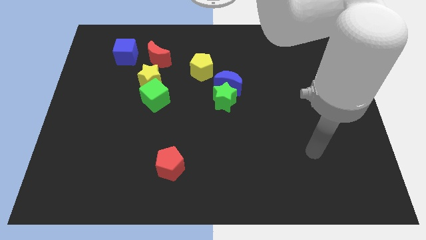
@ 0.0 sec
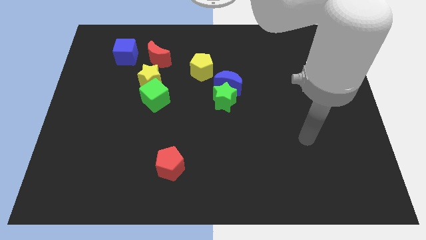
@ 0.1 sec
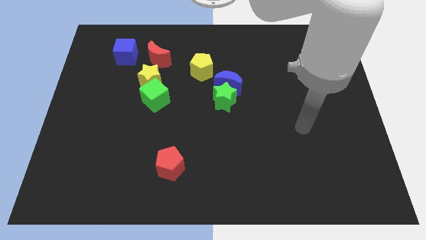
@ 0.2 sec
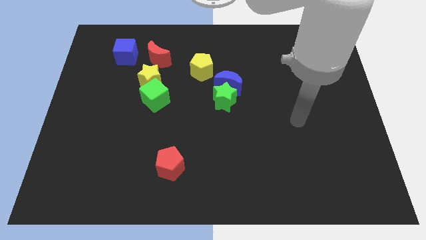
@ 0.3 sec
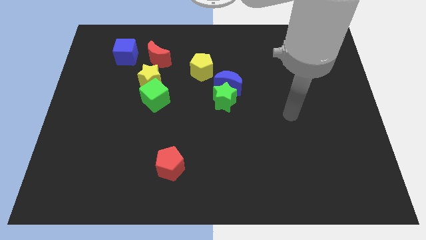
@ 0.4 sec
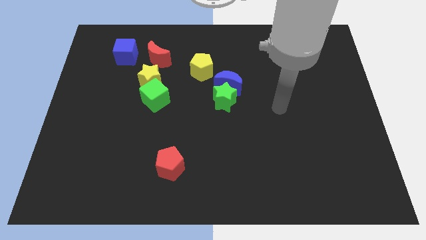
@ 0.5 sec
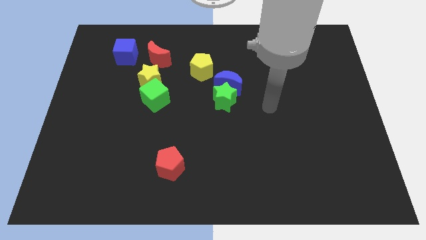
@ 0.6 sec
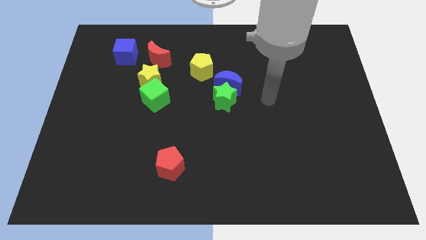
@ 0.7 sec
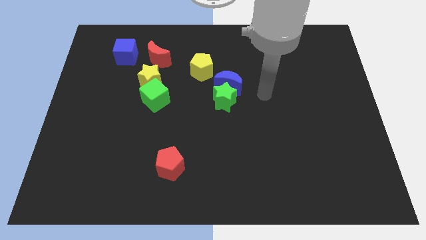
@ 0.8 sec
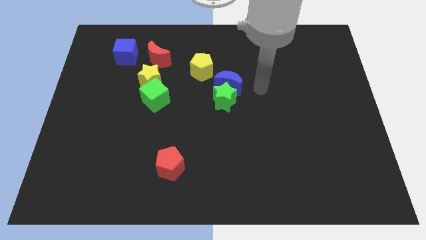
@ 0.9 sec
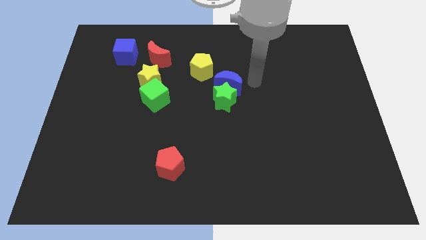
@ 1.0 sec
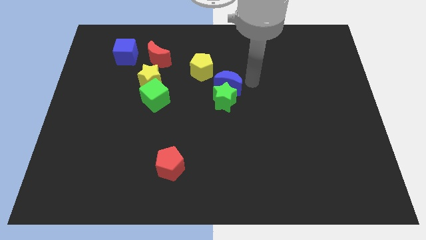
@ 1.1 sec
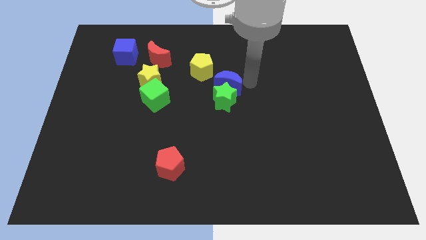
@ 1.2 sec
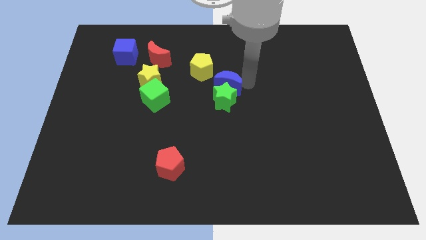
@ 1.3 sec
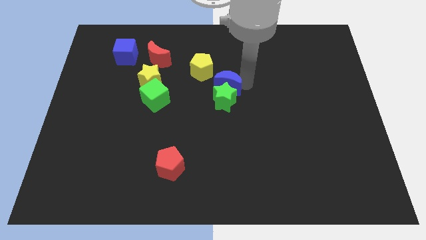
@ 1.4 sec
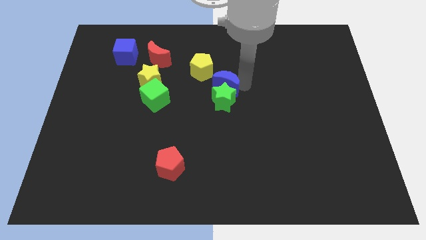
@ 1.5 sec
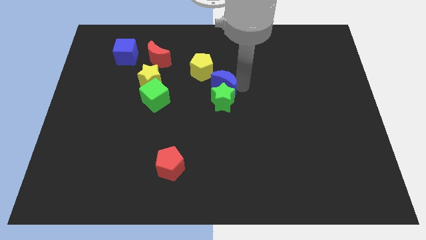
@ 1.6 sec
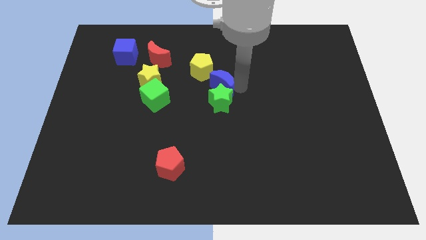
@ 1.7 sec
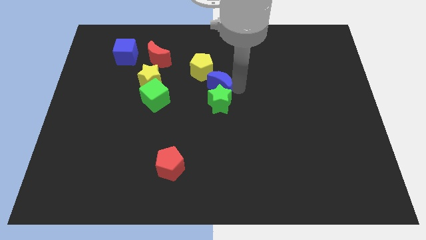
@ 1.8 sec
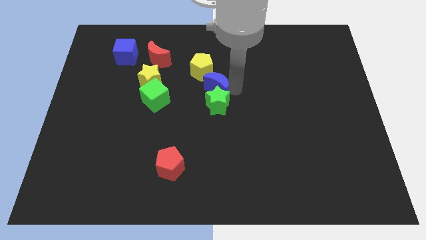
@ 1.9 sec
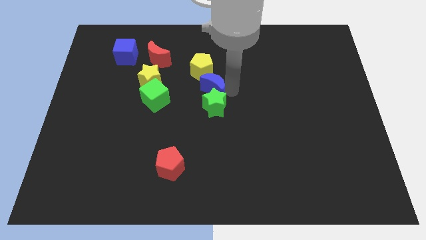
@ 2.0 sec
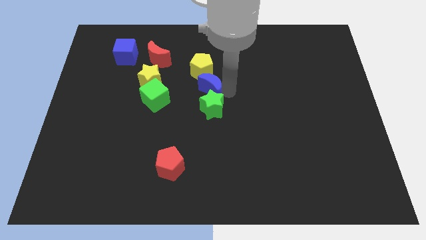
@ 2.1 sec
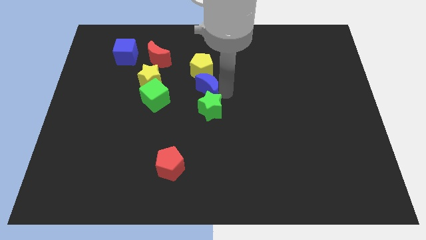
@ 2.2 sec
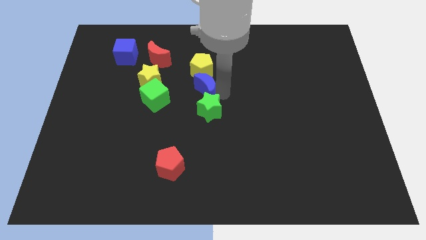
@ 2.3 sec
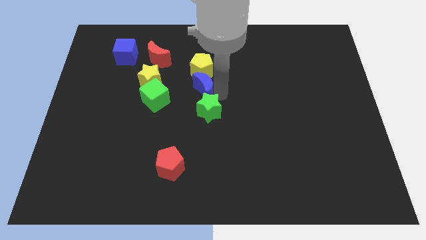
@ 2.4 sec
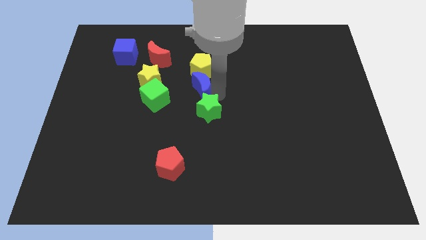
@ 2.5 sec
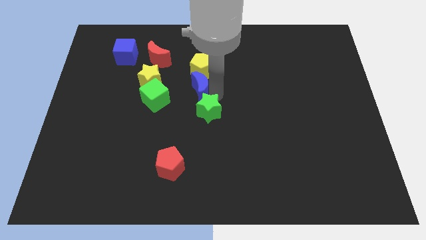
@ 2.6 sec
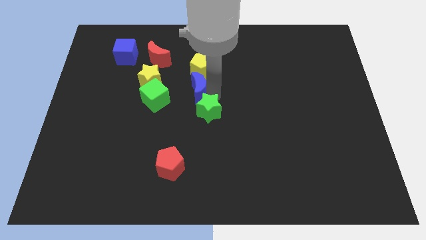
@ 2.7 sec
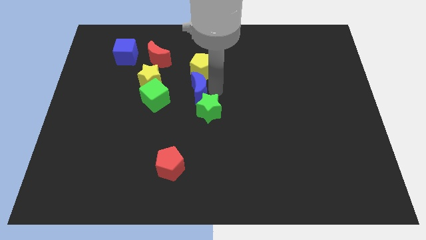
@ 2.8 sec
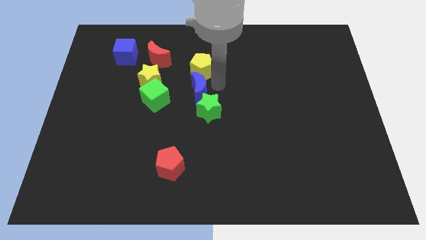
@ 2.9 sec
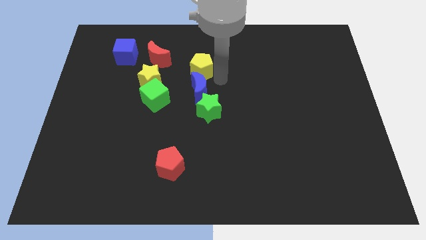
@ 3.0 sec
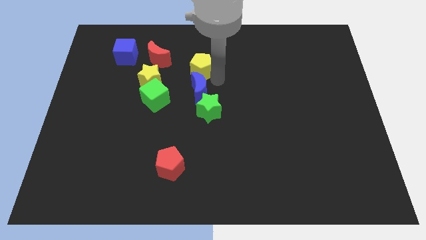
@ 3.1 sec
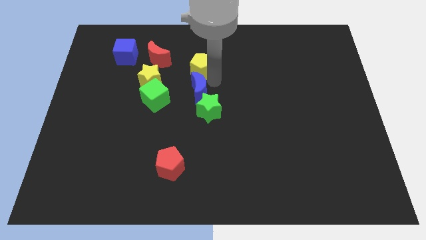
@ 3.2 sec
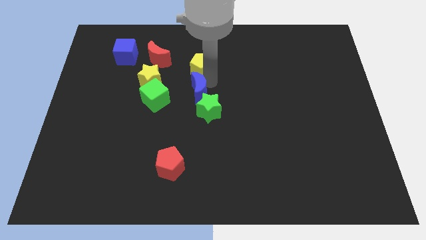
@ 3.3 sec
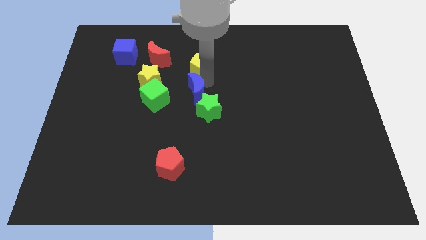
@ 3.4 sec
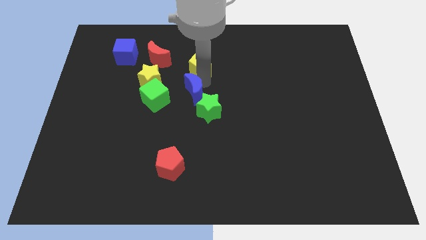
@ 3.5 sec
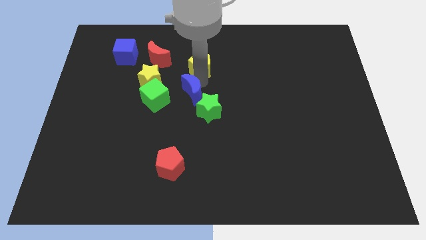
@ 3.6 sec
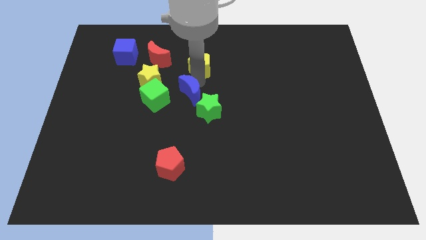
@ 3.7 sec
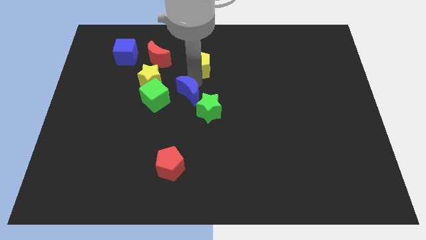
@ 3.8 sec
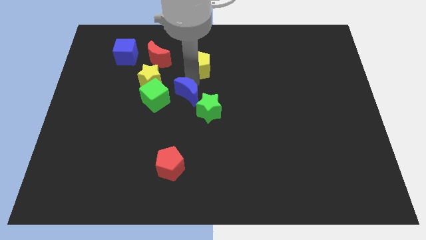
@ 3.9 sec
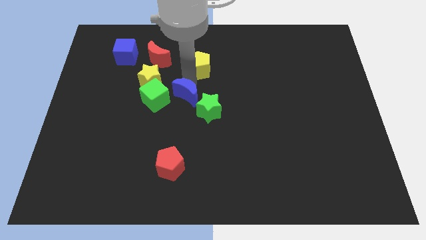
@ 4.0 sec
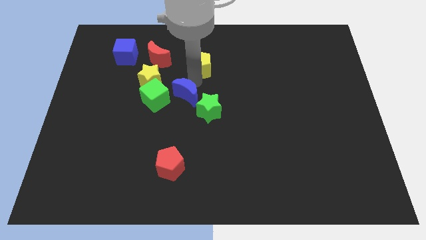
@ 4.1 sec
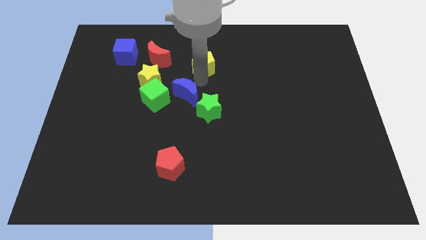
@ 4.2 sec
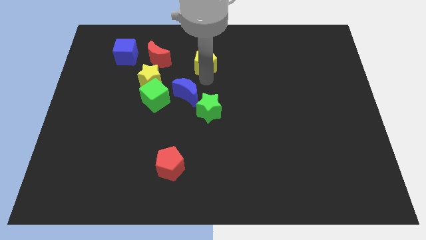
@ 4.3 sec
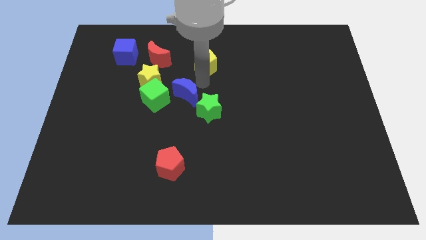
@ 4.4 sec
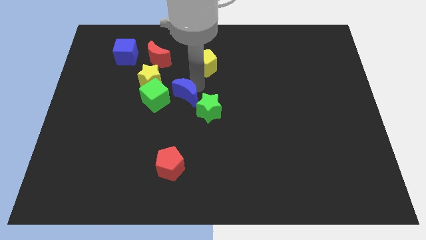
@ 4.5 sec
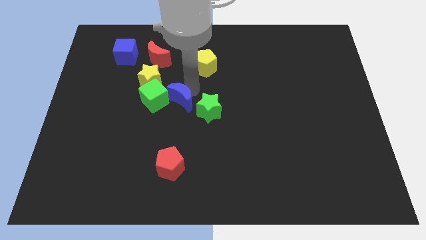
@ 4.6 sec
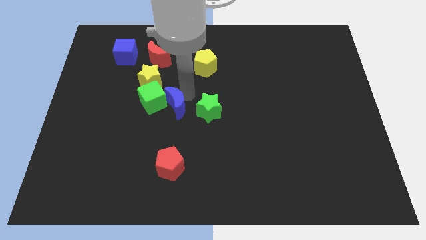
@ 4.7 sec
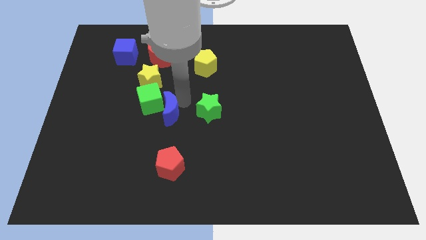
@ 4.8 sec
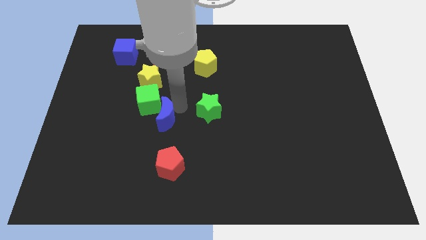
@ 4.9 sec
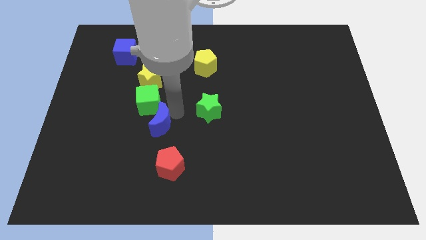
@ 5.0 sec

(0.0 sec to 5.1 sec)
push the blue moon to the bottom of the yellow star

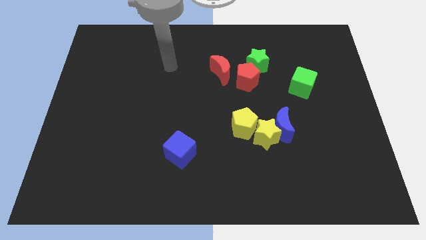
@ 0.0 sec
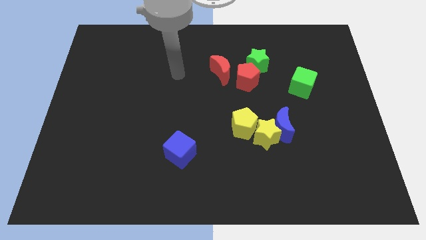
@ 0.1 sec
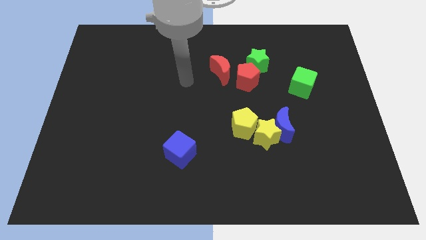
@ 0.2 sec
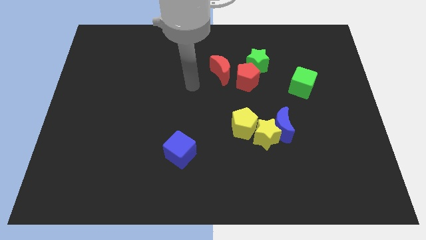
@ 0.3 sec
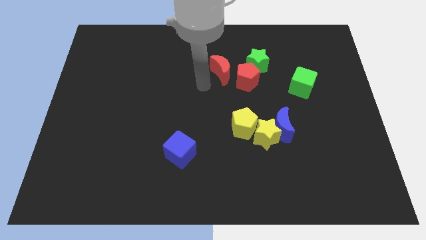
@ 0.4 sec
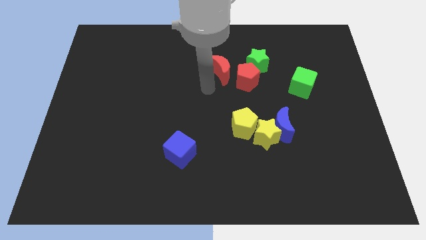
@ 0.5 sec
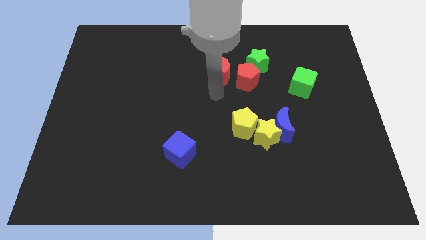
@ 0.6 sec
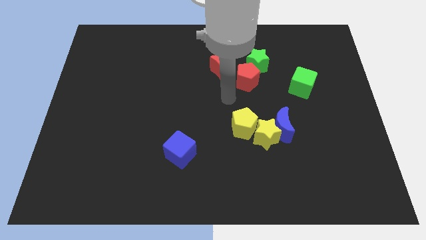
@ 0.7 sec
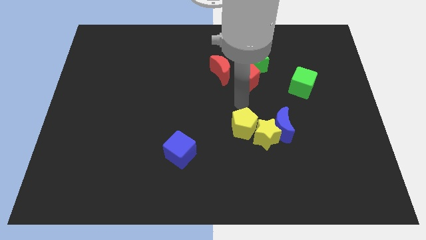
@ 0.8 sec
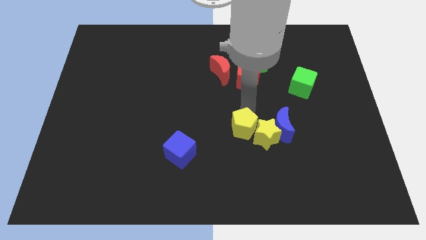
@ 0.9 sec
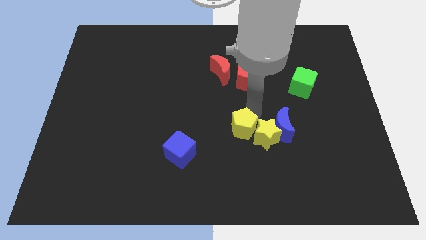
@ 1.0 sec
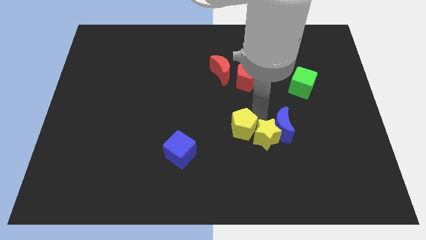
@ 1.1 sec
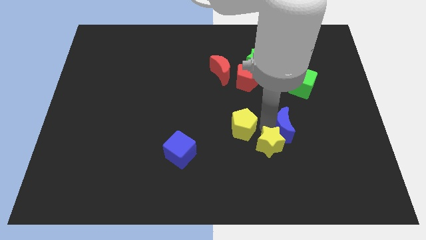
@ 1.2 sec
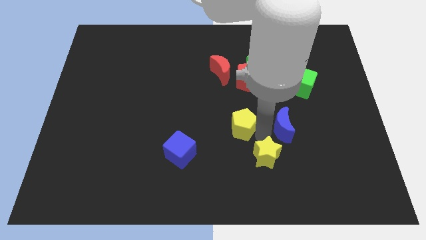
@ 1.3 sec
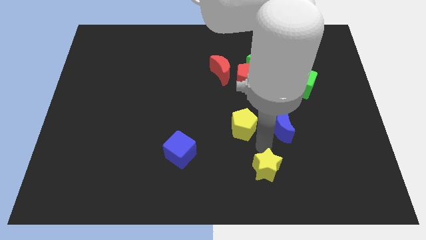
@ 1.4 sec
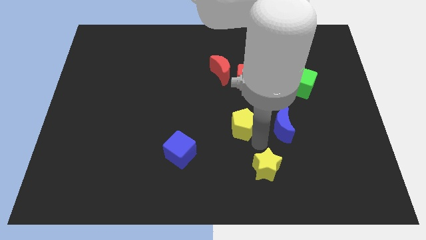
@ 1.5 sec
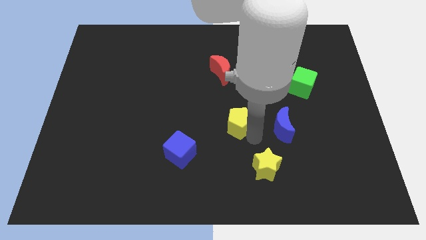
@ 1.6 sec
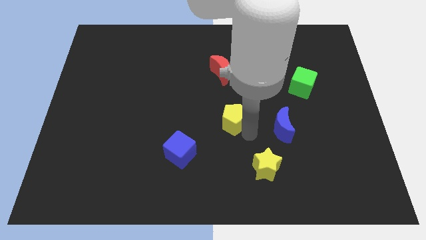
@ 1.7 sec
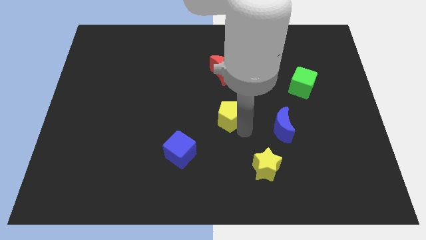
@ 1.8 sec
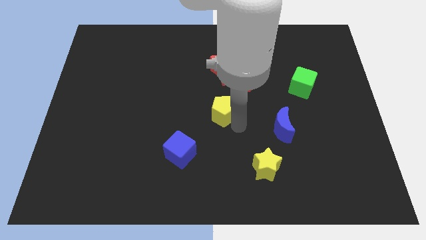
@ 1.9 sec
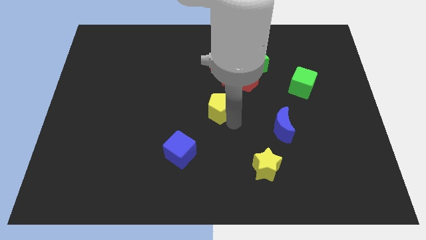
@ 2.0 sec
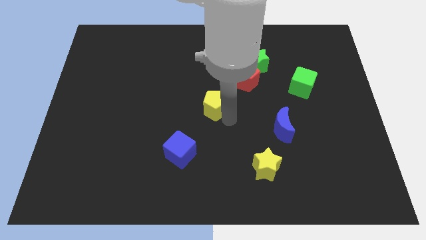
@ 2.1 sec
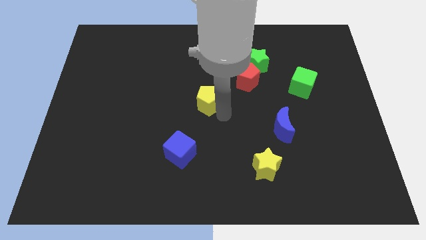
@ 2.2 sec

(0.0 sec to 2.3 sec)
push the yellow pentagon to the bottom left side of the red moon
